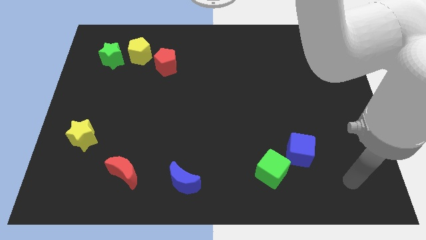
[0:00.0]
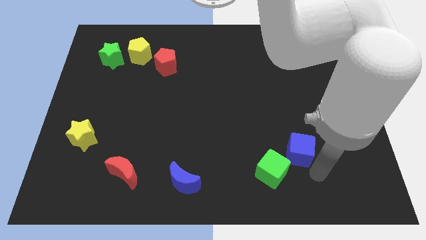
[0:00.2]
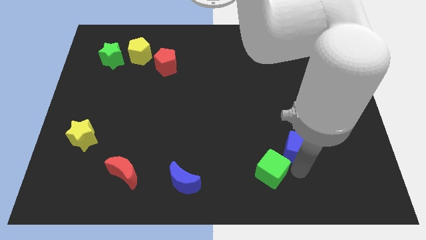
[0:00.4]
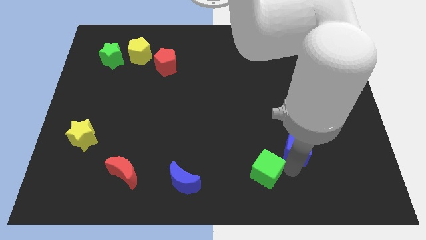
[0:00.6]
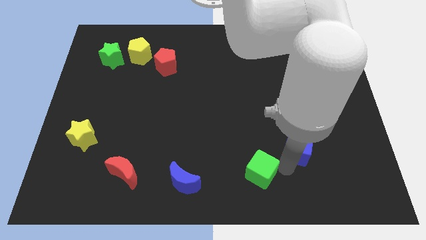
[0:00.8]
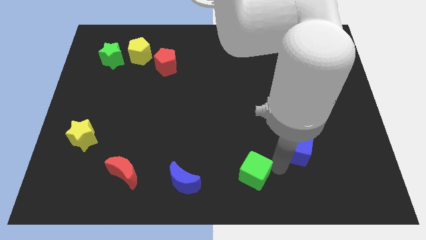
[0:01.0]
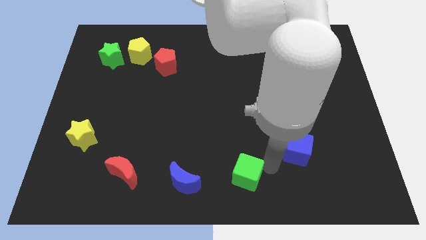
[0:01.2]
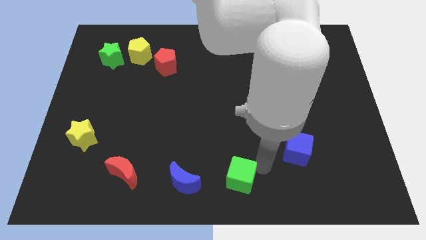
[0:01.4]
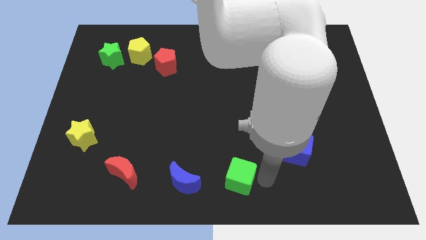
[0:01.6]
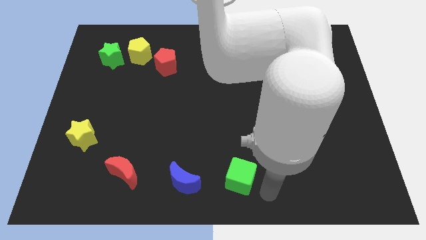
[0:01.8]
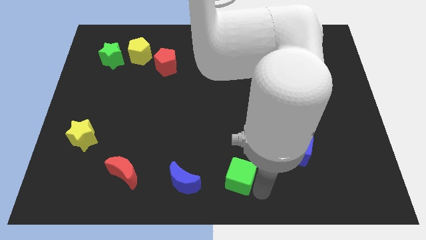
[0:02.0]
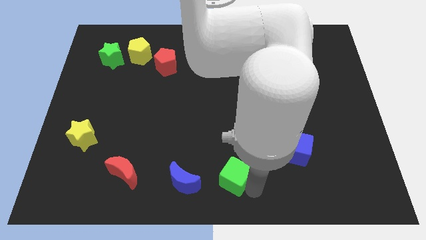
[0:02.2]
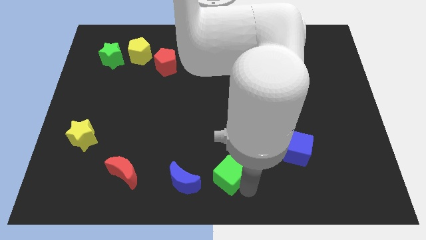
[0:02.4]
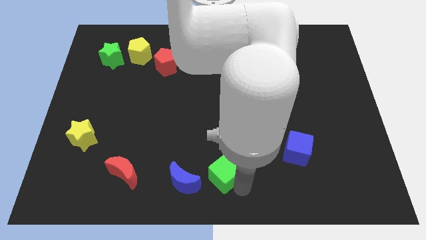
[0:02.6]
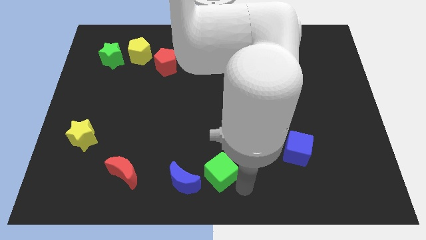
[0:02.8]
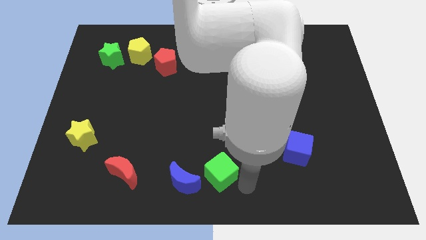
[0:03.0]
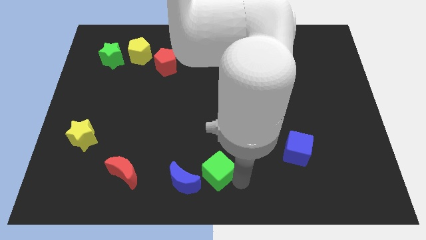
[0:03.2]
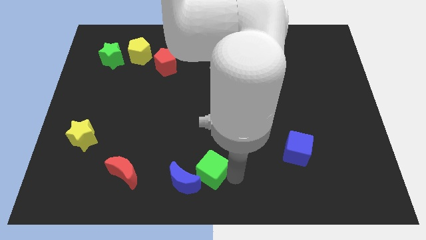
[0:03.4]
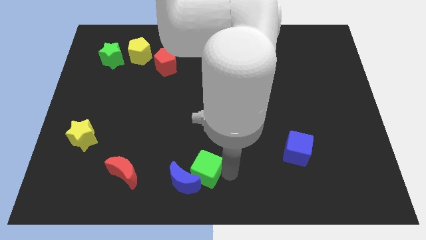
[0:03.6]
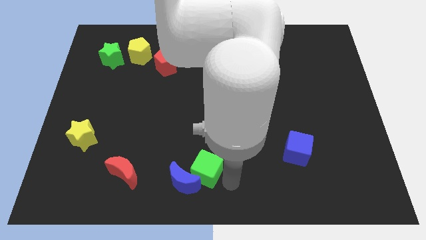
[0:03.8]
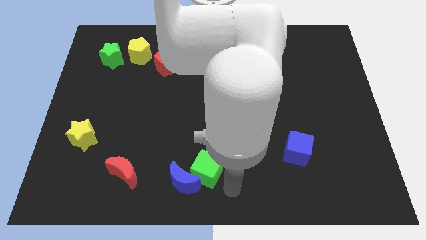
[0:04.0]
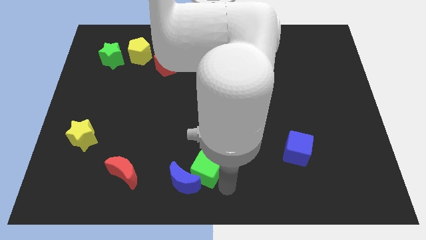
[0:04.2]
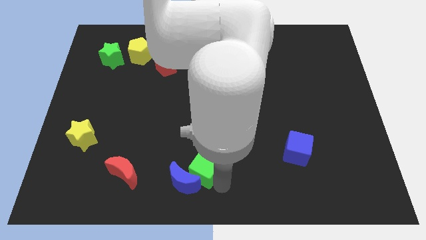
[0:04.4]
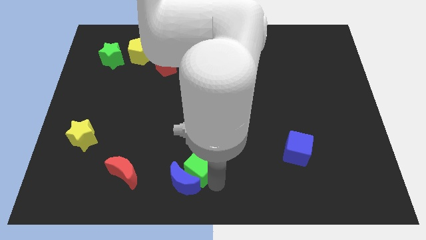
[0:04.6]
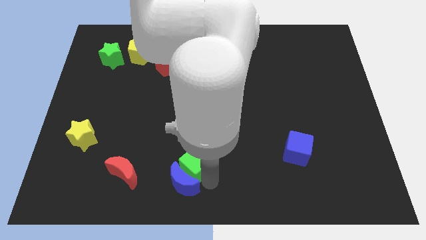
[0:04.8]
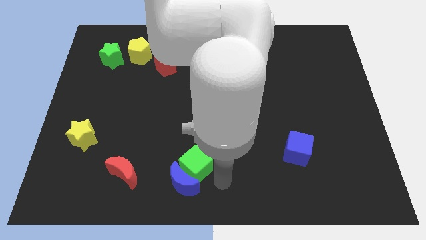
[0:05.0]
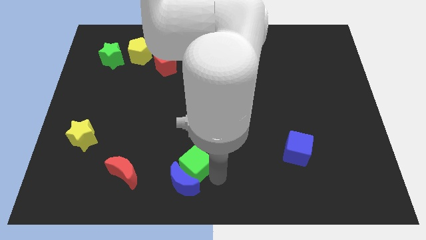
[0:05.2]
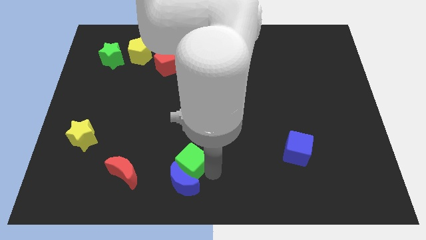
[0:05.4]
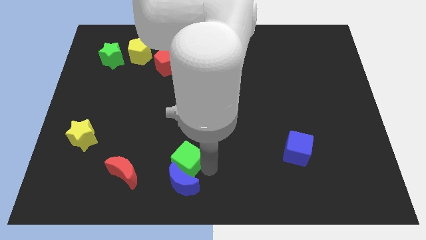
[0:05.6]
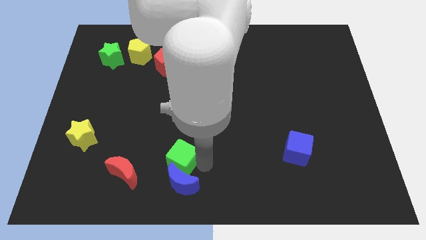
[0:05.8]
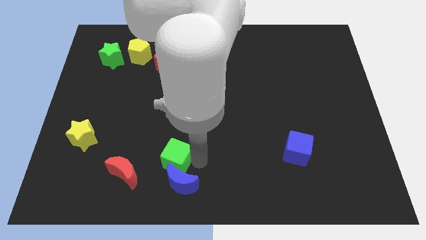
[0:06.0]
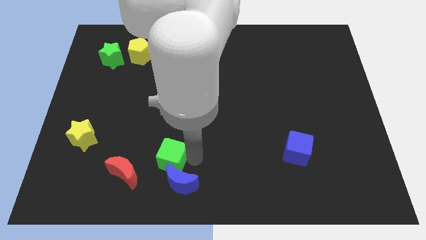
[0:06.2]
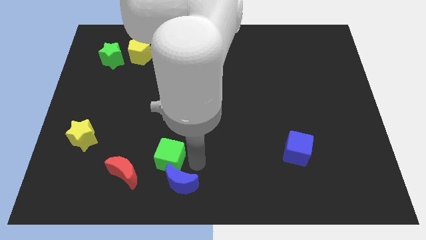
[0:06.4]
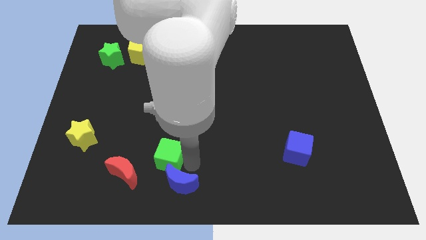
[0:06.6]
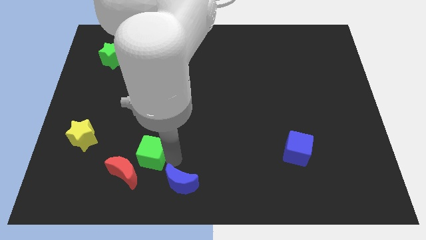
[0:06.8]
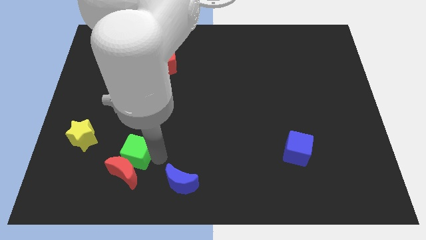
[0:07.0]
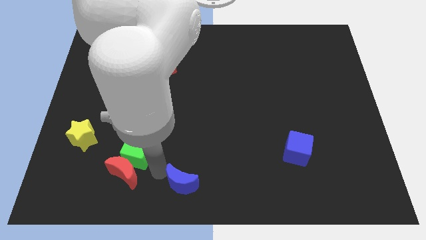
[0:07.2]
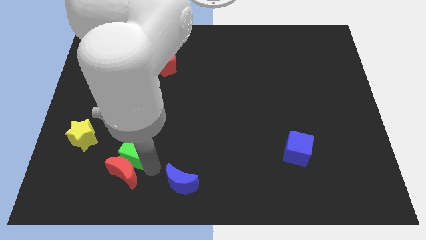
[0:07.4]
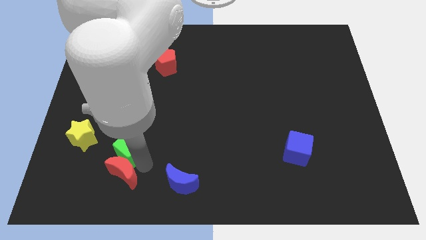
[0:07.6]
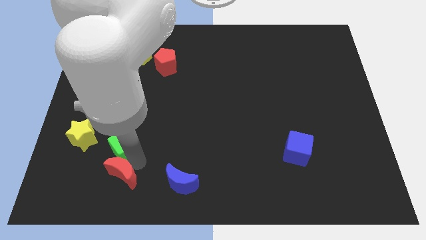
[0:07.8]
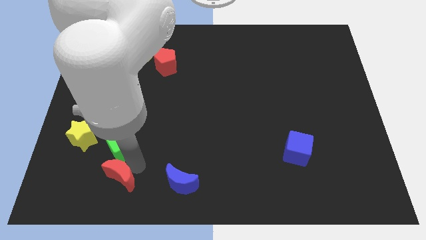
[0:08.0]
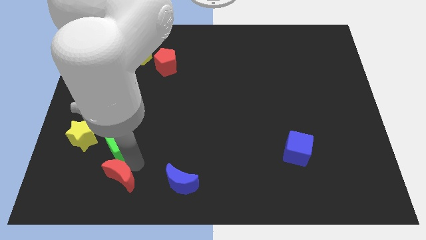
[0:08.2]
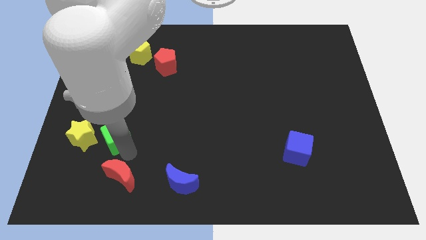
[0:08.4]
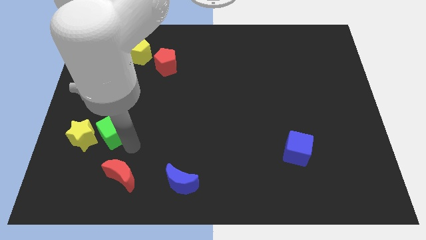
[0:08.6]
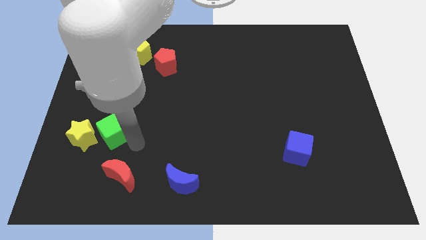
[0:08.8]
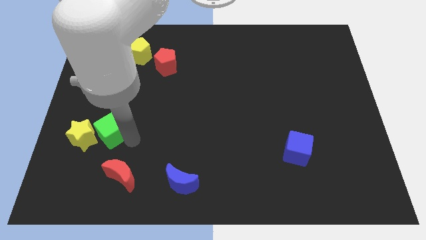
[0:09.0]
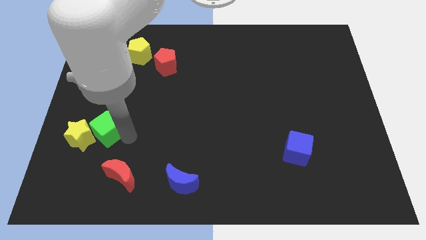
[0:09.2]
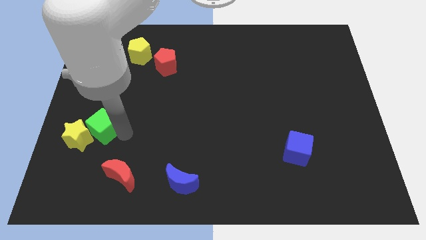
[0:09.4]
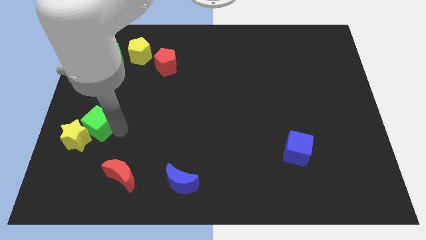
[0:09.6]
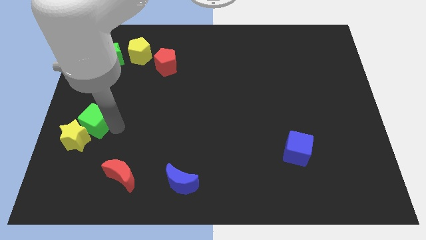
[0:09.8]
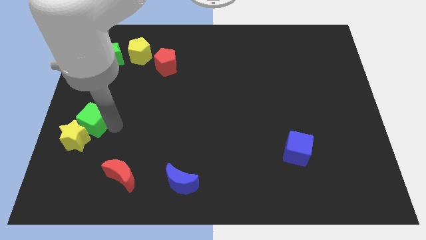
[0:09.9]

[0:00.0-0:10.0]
slide the green cube to the center left

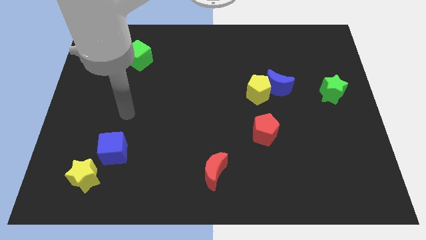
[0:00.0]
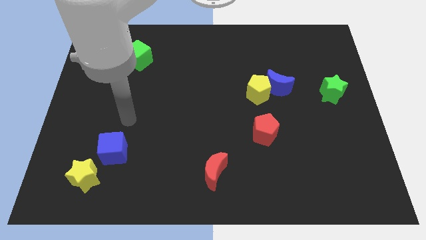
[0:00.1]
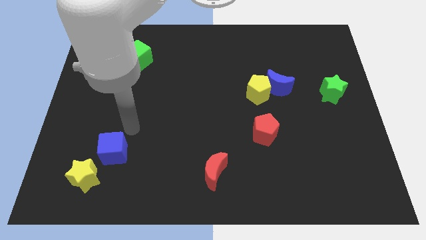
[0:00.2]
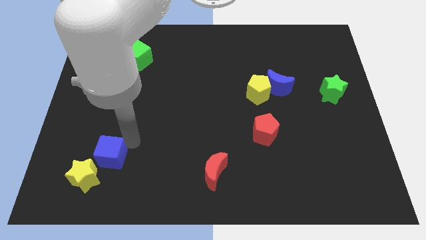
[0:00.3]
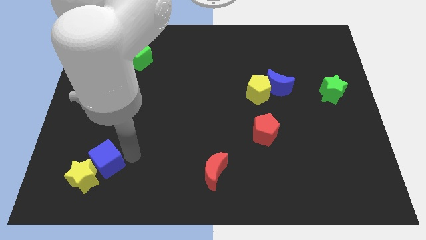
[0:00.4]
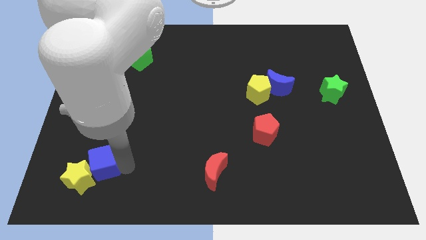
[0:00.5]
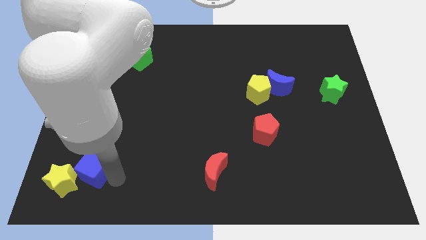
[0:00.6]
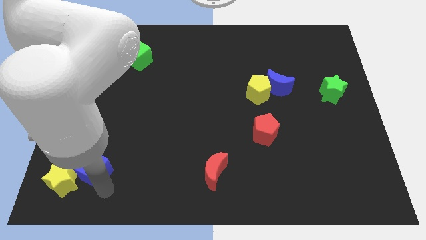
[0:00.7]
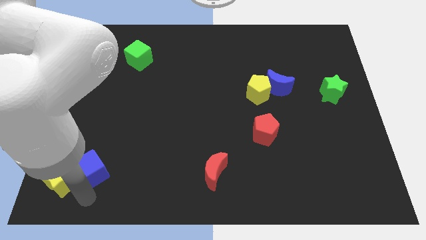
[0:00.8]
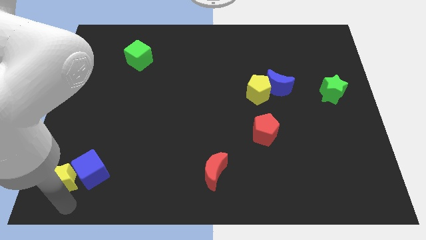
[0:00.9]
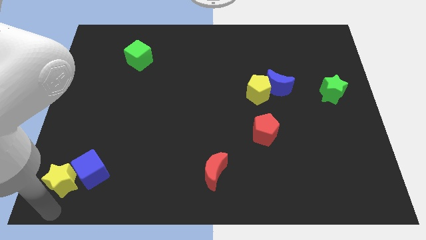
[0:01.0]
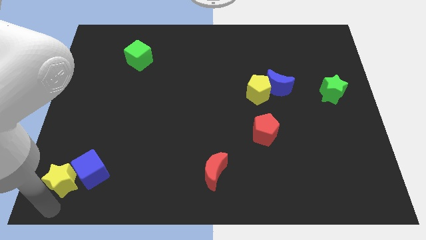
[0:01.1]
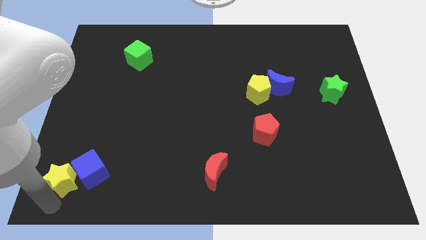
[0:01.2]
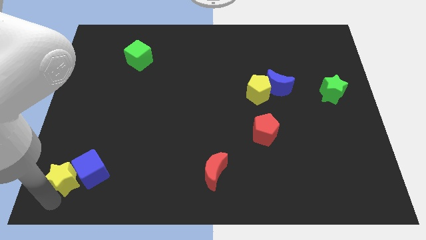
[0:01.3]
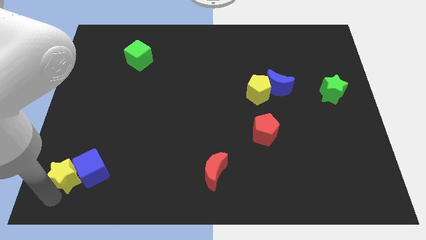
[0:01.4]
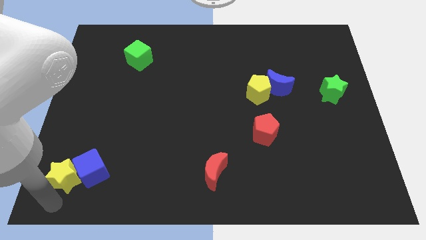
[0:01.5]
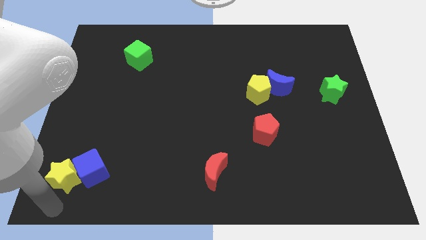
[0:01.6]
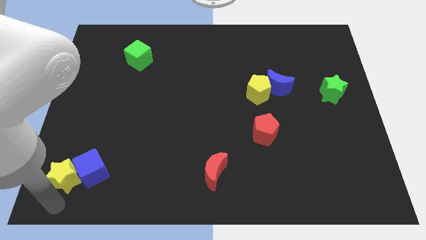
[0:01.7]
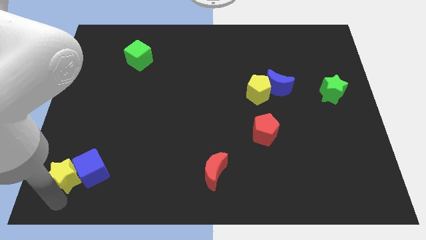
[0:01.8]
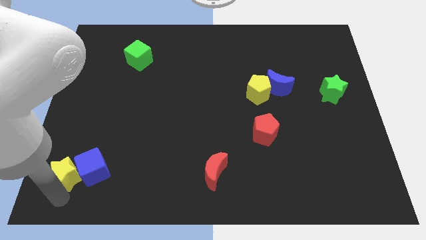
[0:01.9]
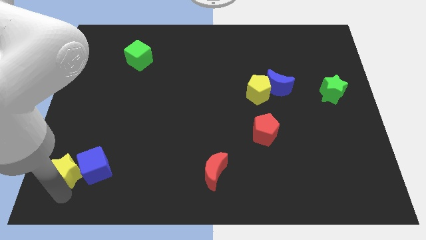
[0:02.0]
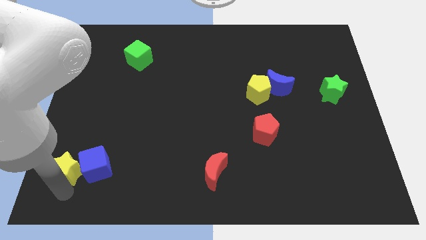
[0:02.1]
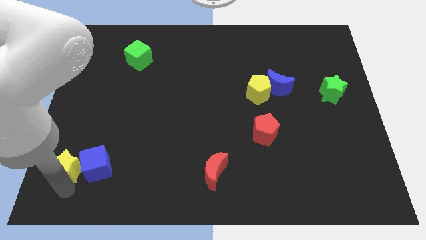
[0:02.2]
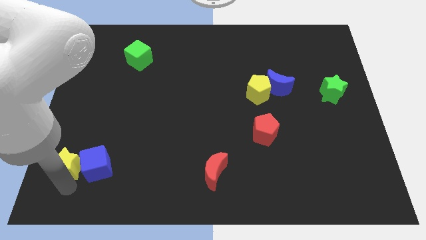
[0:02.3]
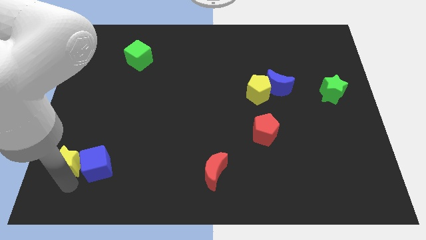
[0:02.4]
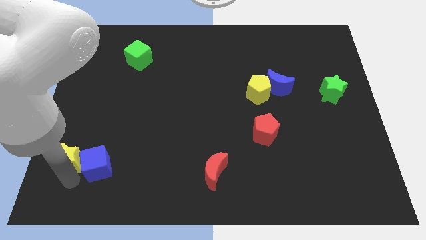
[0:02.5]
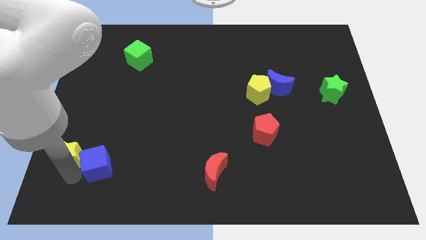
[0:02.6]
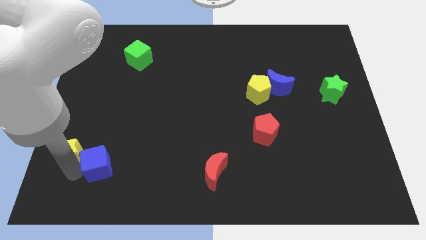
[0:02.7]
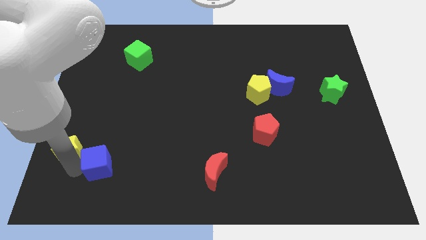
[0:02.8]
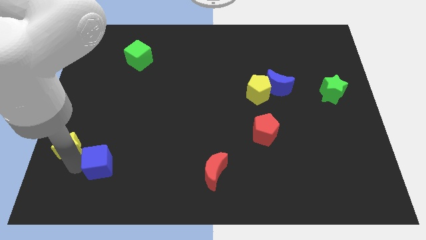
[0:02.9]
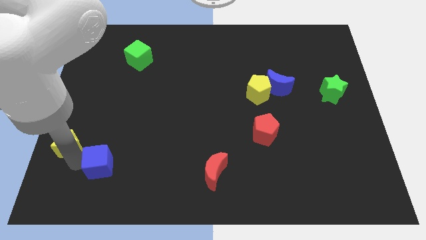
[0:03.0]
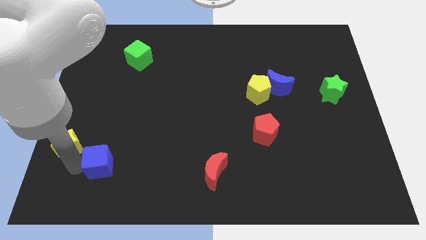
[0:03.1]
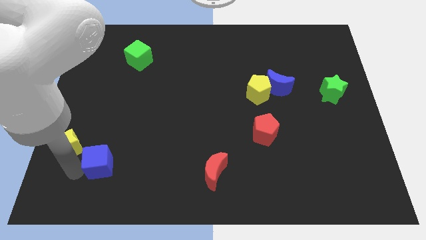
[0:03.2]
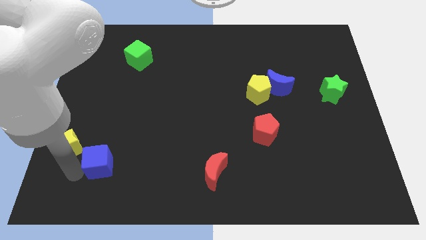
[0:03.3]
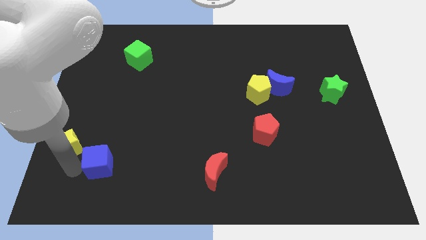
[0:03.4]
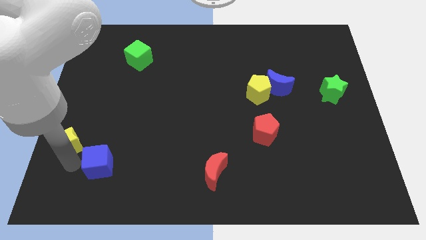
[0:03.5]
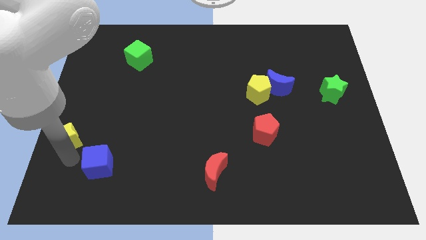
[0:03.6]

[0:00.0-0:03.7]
push the yellow star to the left side
